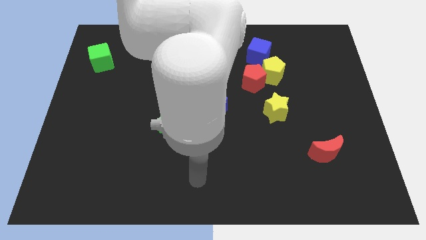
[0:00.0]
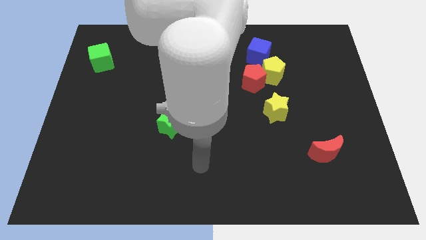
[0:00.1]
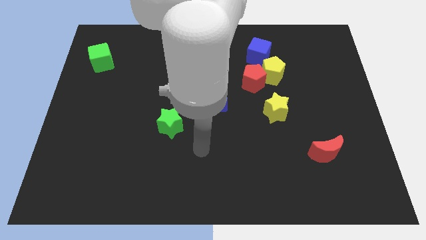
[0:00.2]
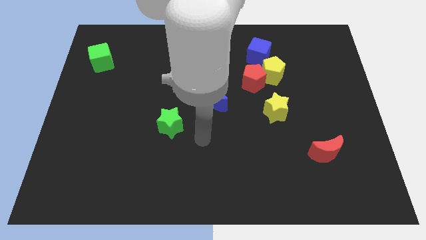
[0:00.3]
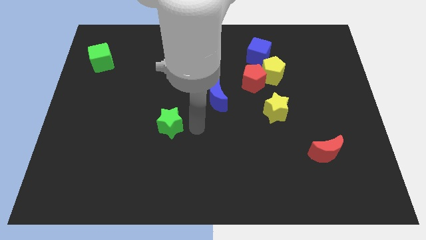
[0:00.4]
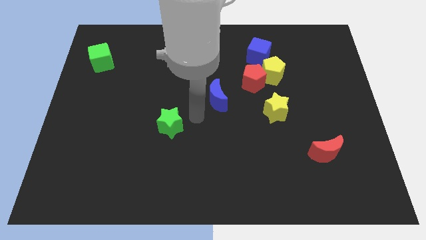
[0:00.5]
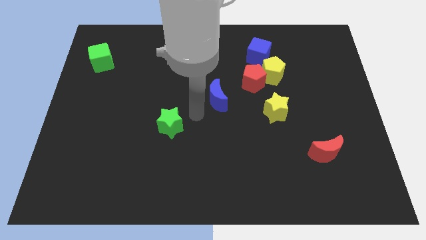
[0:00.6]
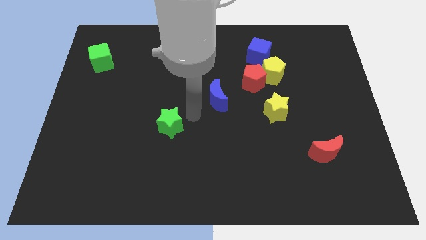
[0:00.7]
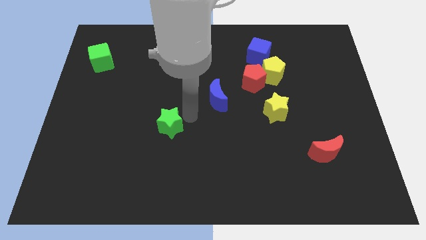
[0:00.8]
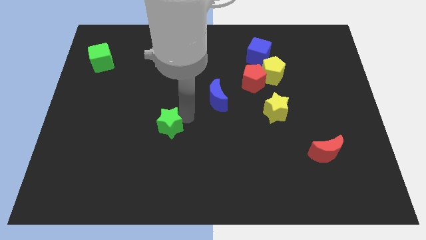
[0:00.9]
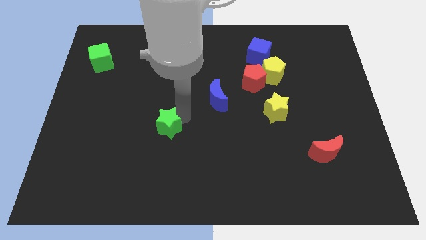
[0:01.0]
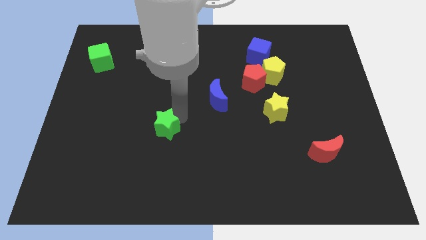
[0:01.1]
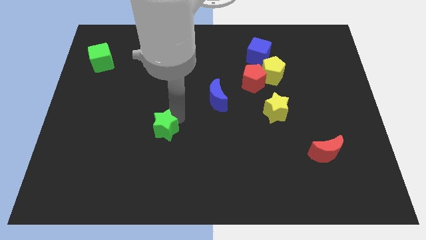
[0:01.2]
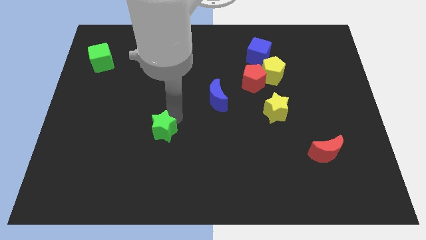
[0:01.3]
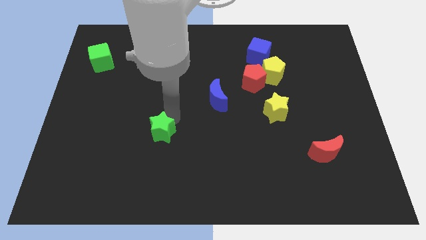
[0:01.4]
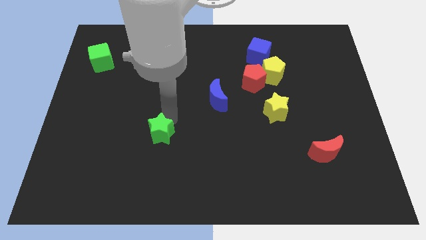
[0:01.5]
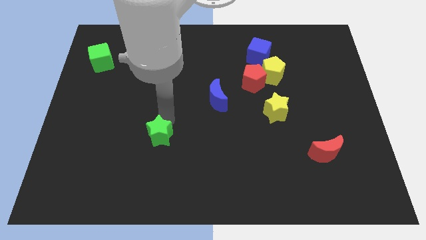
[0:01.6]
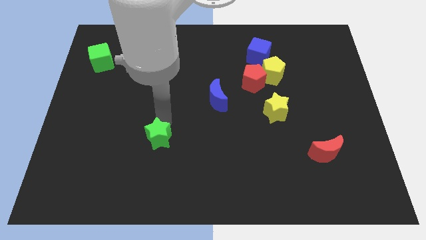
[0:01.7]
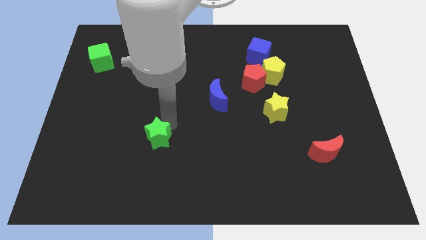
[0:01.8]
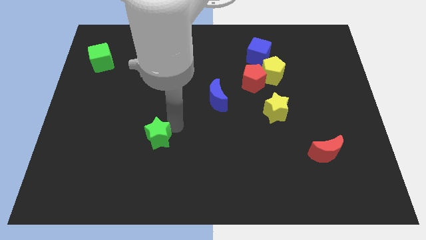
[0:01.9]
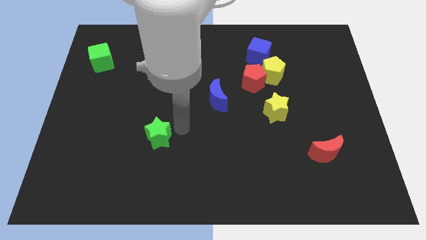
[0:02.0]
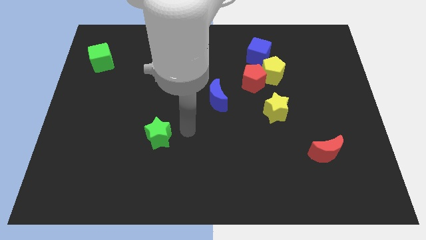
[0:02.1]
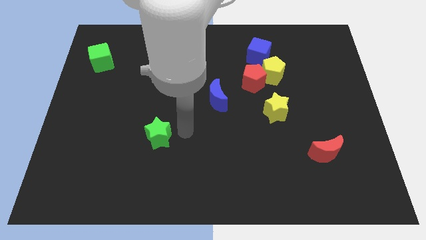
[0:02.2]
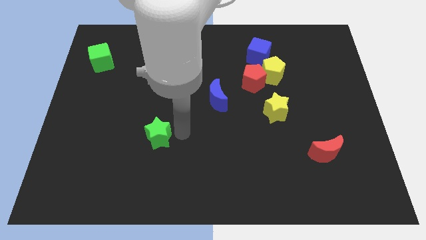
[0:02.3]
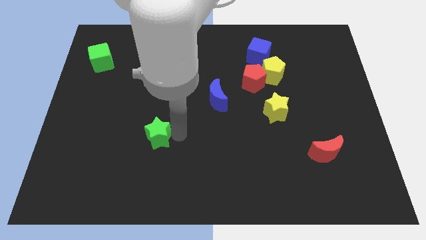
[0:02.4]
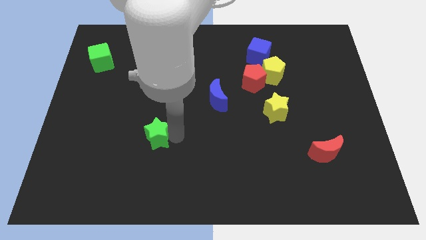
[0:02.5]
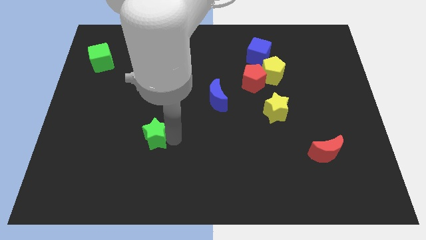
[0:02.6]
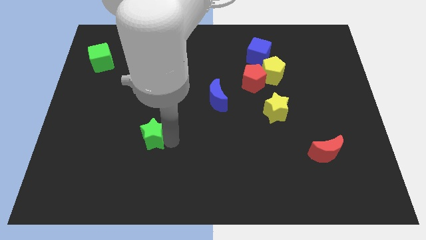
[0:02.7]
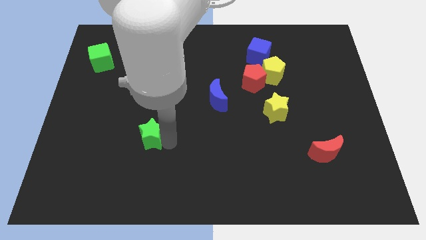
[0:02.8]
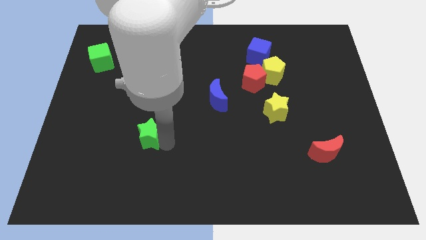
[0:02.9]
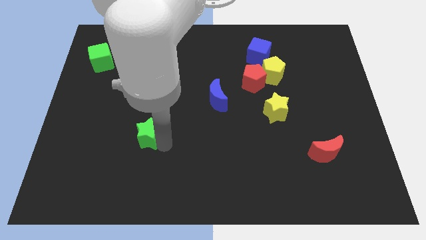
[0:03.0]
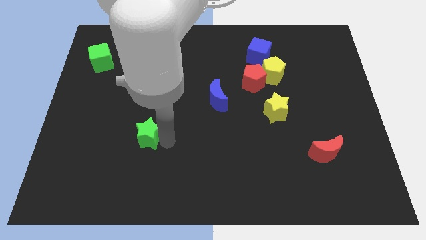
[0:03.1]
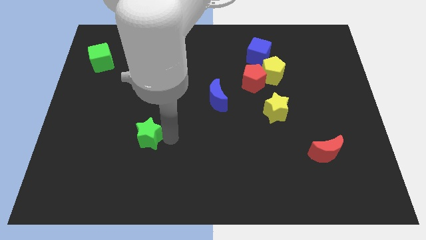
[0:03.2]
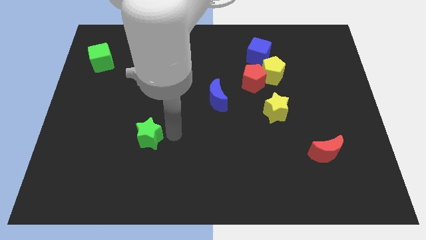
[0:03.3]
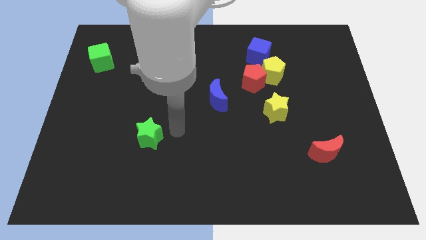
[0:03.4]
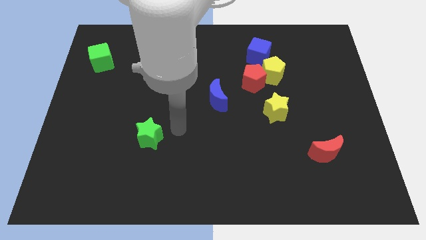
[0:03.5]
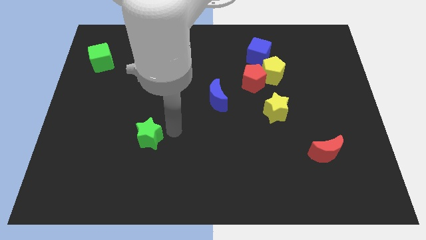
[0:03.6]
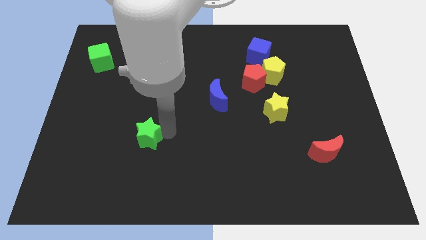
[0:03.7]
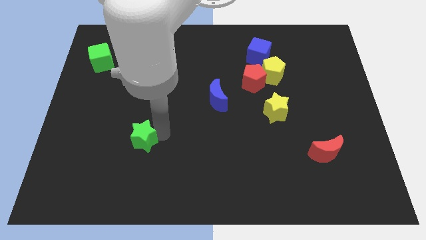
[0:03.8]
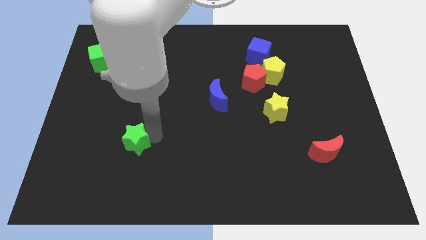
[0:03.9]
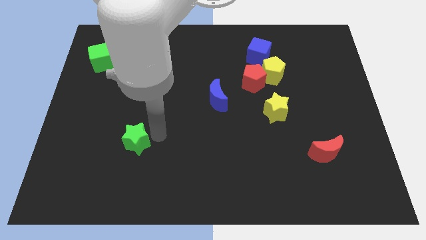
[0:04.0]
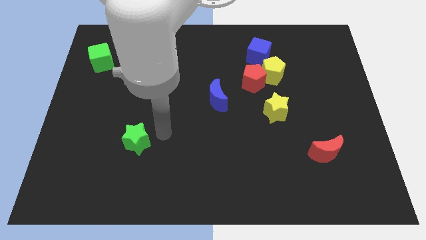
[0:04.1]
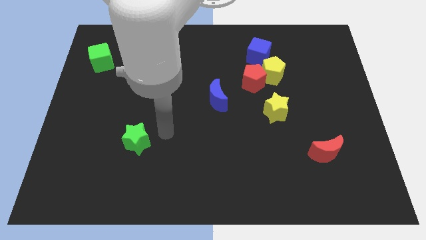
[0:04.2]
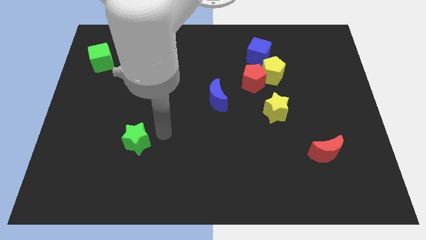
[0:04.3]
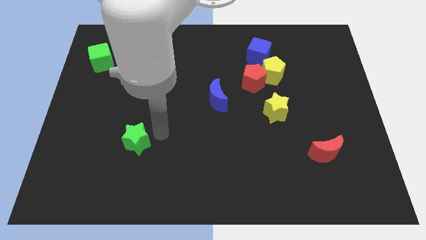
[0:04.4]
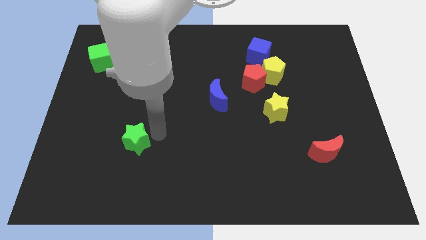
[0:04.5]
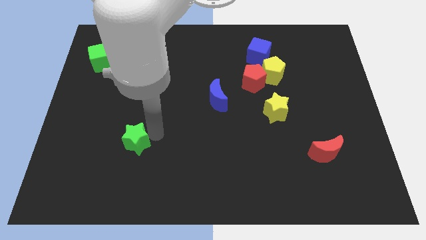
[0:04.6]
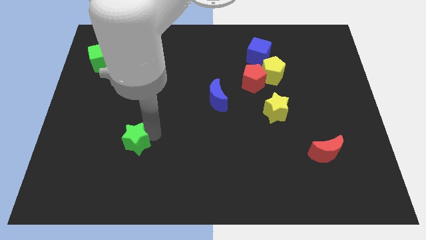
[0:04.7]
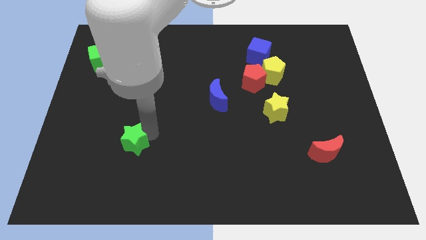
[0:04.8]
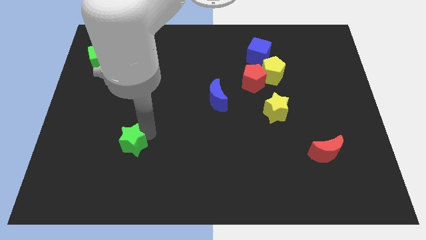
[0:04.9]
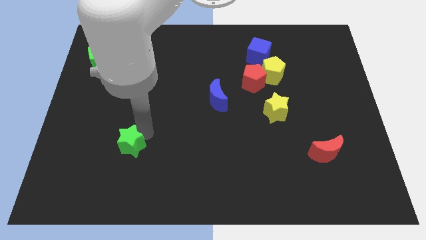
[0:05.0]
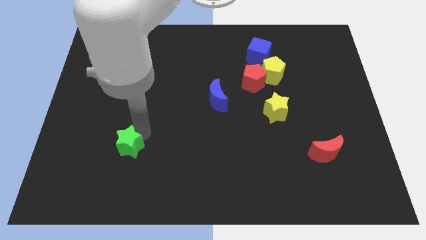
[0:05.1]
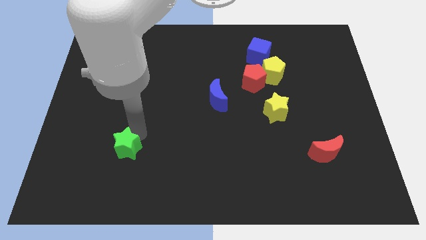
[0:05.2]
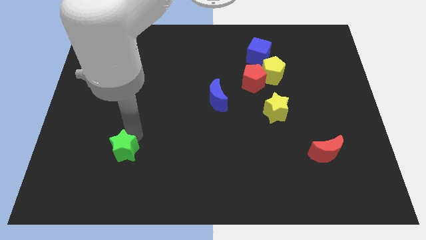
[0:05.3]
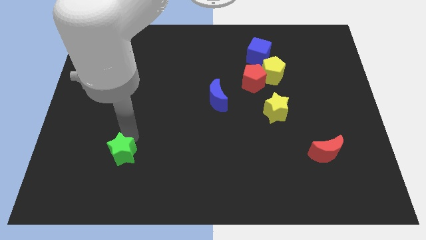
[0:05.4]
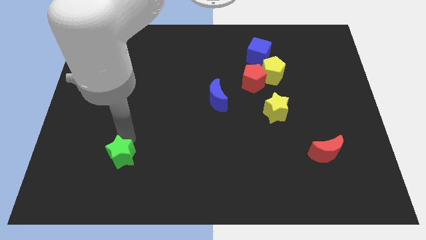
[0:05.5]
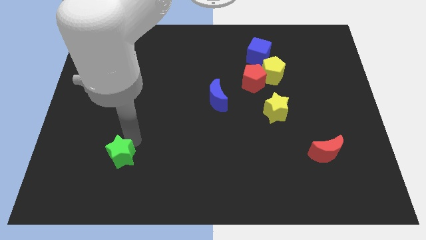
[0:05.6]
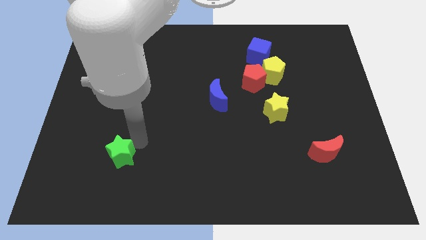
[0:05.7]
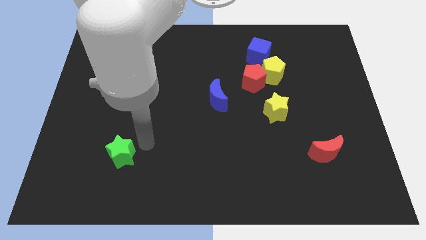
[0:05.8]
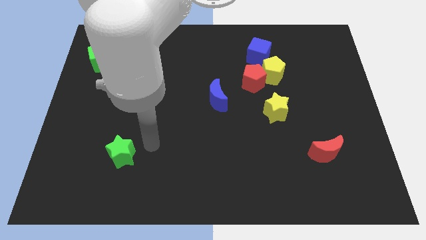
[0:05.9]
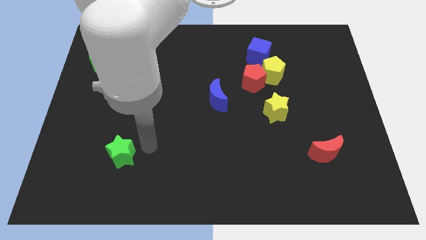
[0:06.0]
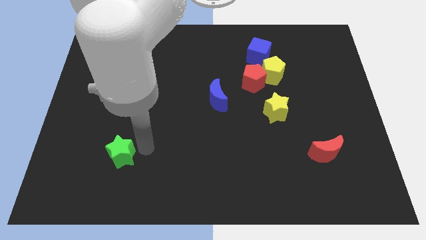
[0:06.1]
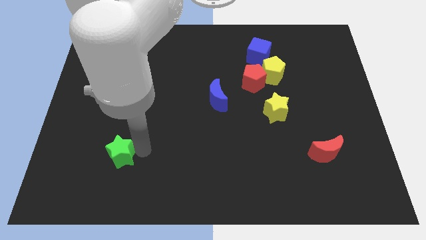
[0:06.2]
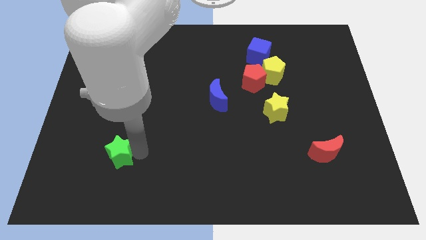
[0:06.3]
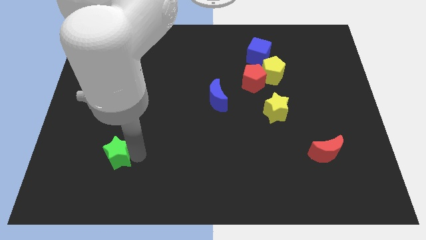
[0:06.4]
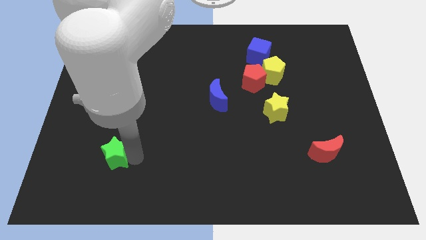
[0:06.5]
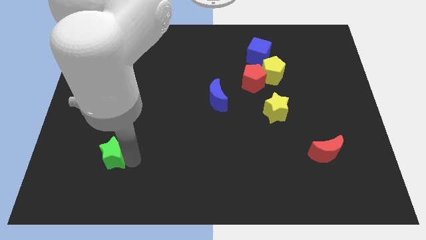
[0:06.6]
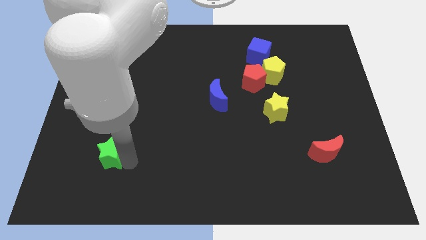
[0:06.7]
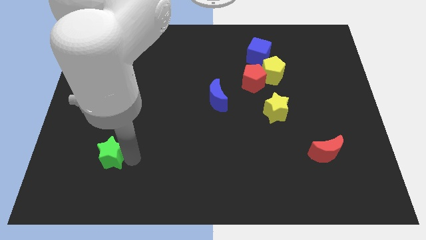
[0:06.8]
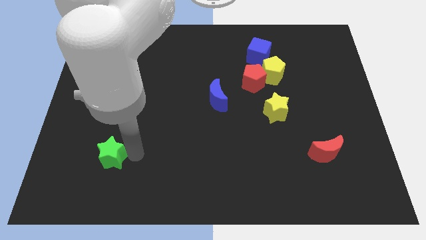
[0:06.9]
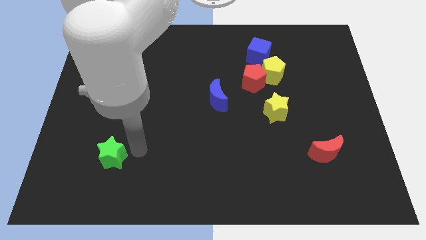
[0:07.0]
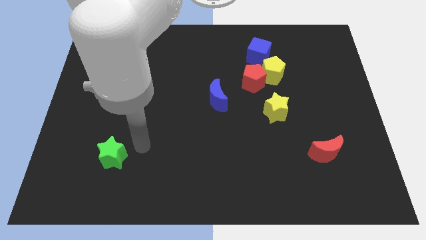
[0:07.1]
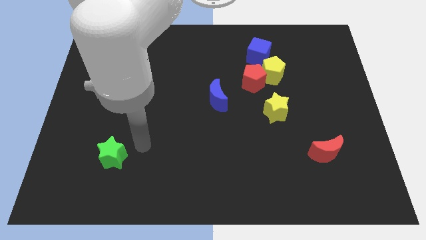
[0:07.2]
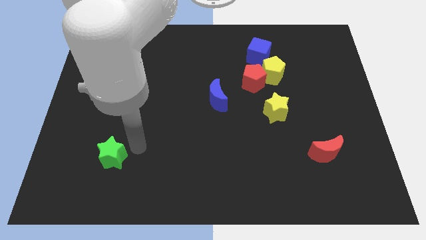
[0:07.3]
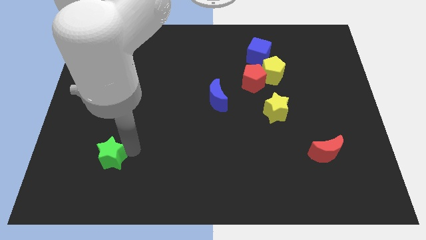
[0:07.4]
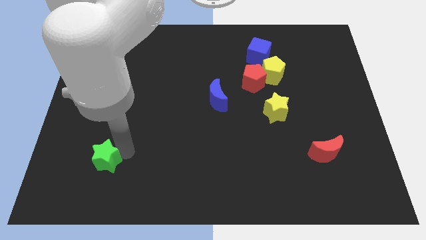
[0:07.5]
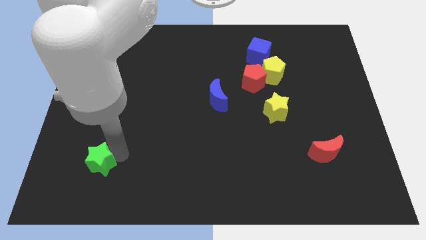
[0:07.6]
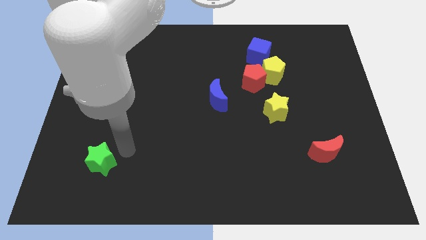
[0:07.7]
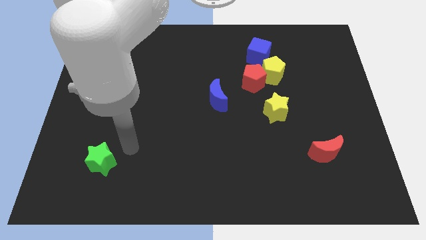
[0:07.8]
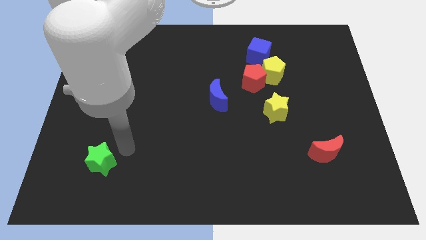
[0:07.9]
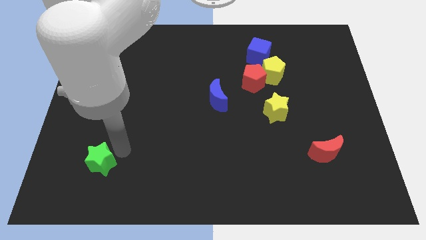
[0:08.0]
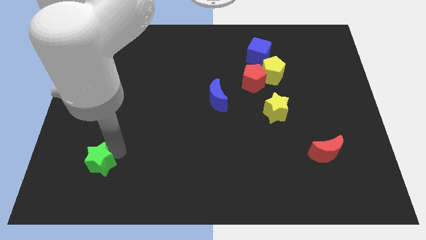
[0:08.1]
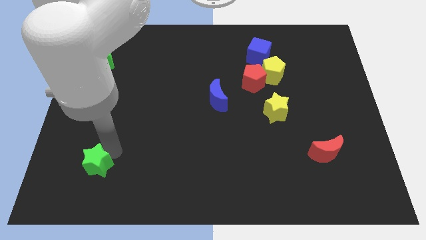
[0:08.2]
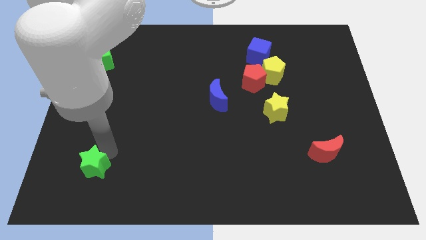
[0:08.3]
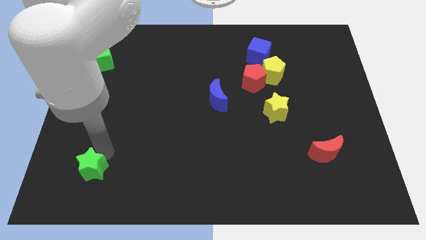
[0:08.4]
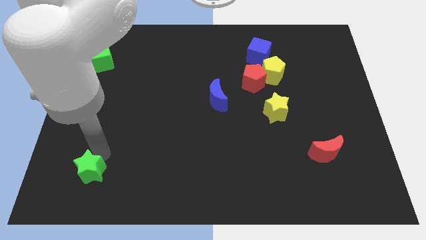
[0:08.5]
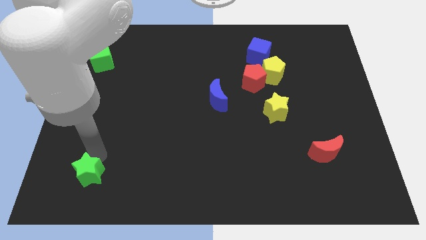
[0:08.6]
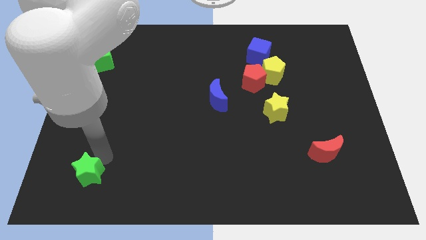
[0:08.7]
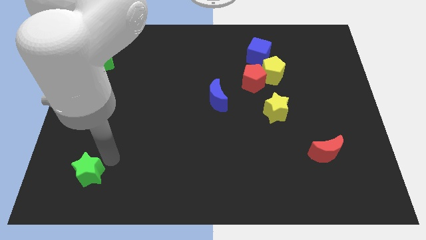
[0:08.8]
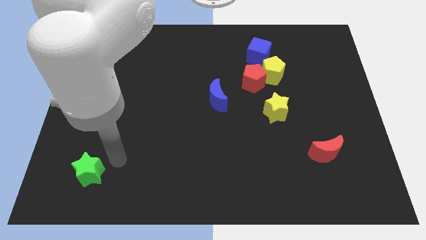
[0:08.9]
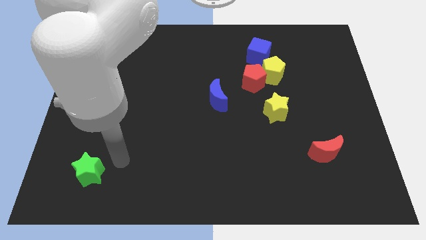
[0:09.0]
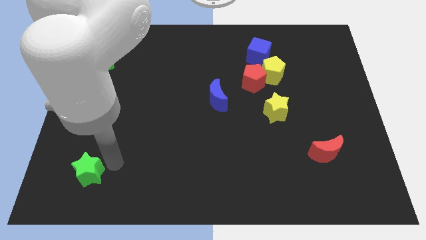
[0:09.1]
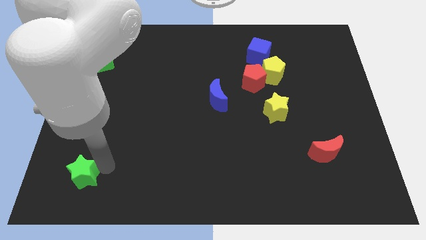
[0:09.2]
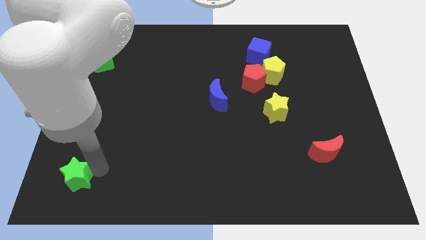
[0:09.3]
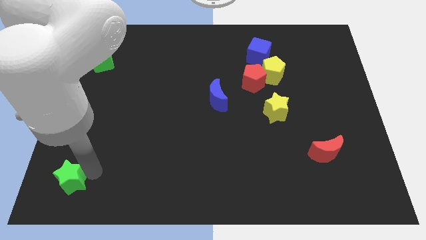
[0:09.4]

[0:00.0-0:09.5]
move the green star to the bottom left of the board
